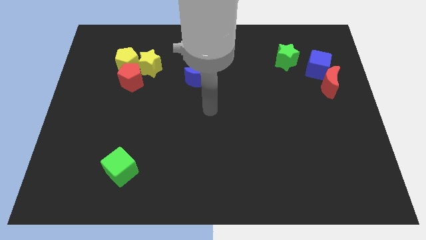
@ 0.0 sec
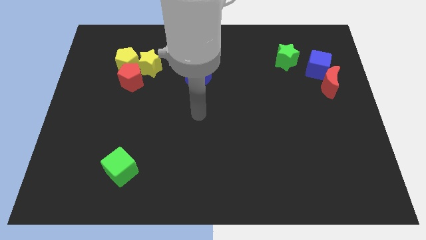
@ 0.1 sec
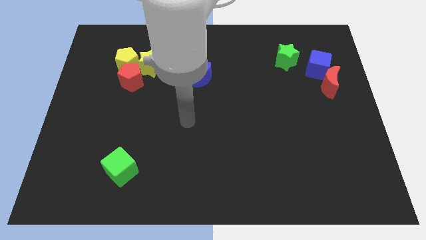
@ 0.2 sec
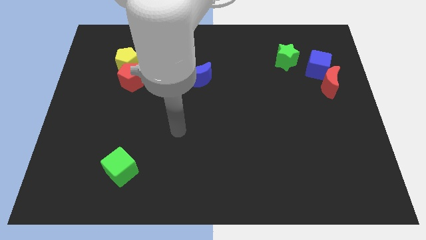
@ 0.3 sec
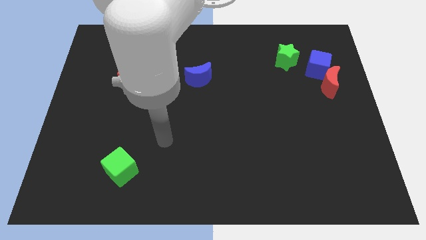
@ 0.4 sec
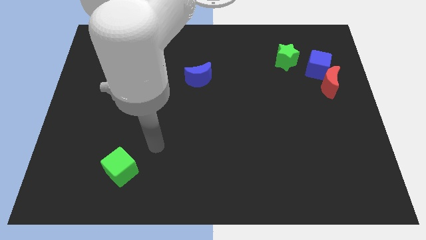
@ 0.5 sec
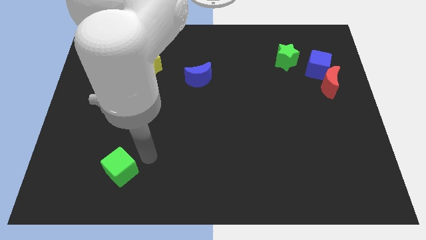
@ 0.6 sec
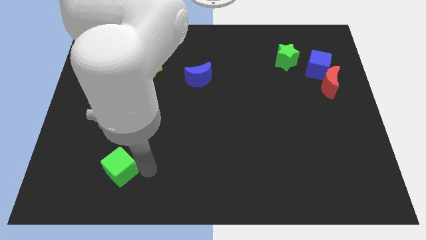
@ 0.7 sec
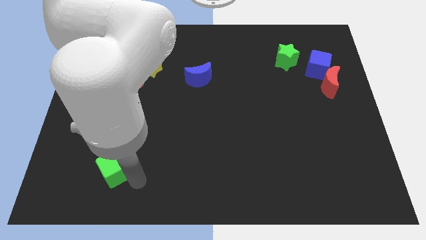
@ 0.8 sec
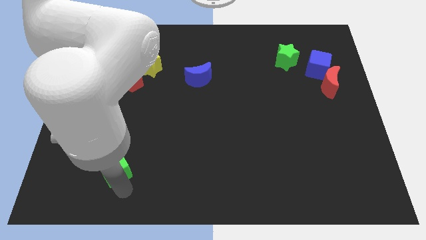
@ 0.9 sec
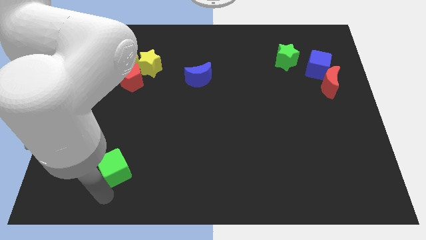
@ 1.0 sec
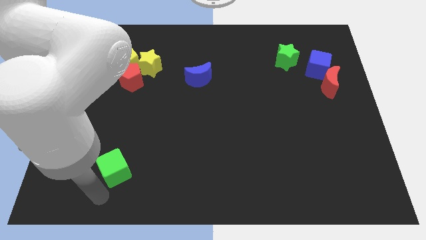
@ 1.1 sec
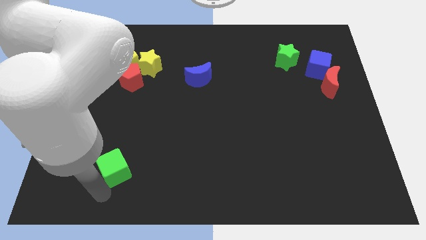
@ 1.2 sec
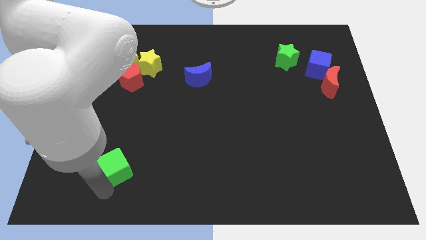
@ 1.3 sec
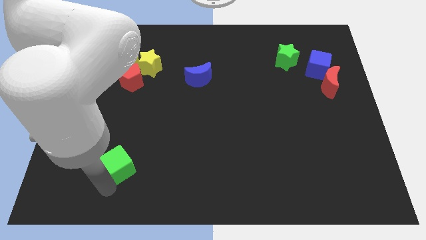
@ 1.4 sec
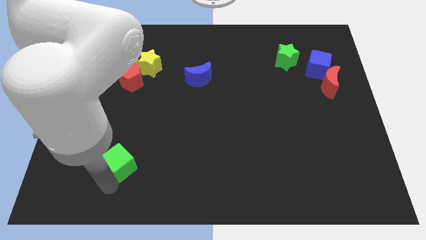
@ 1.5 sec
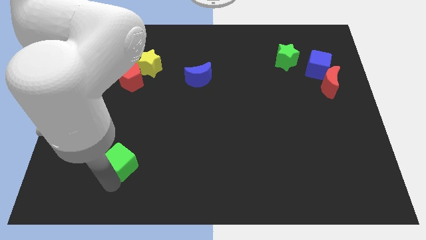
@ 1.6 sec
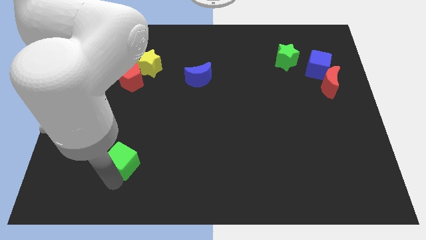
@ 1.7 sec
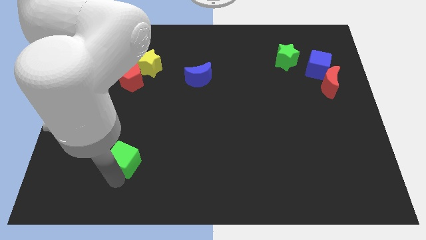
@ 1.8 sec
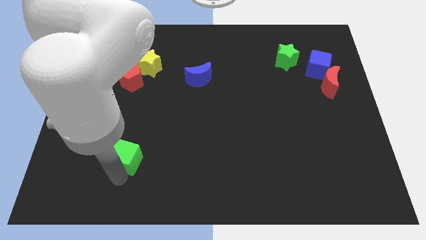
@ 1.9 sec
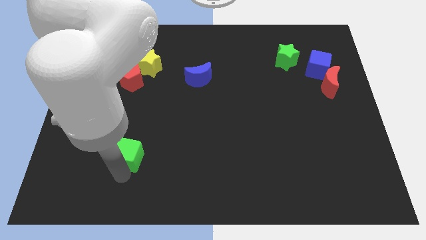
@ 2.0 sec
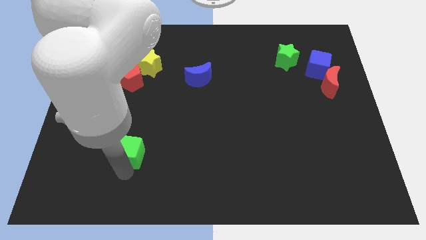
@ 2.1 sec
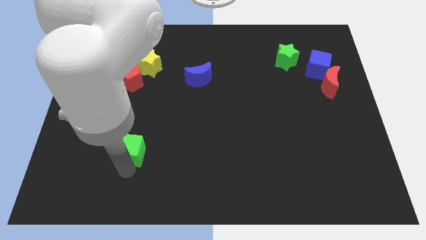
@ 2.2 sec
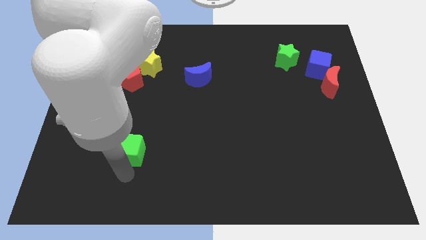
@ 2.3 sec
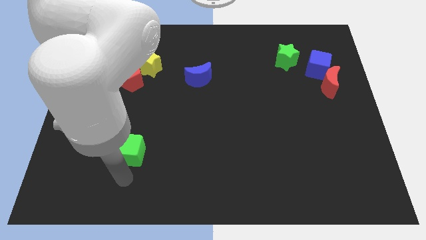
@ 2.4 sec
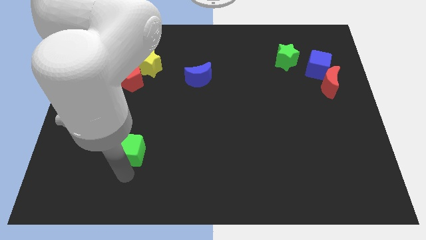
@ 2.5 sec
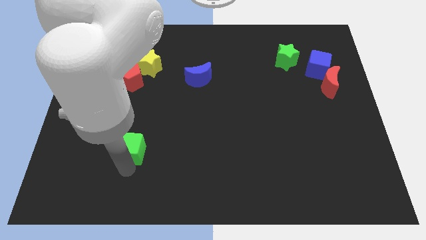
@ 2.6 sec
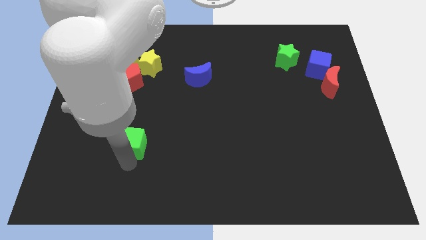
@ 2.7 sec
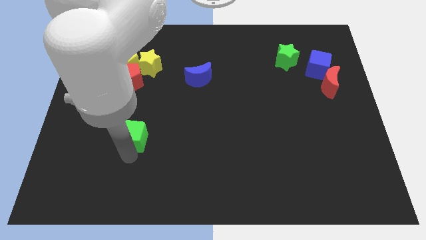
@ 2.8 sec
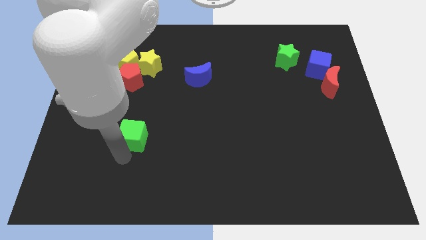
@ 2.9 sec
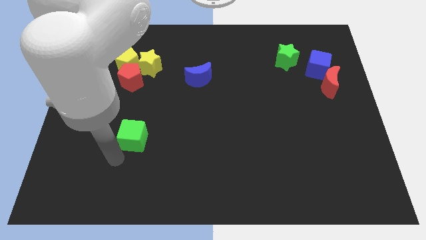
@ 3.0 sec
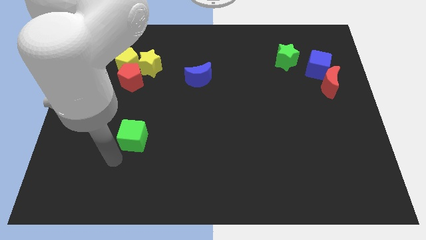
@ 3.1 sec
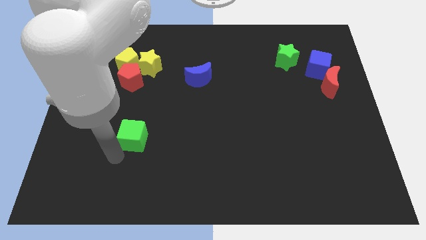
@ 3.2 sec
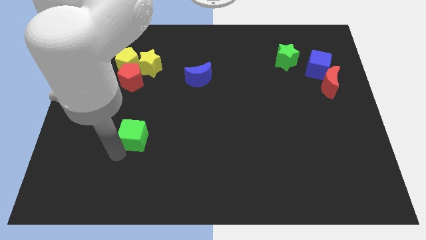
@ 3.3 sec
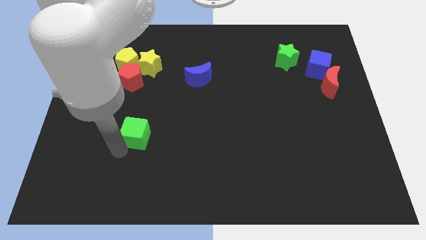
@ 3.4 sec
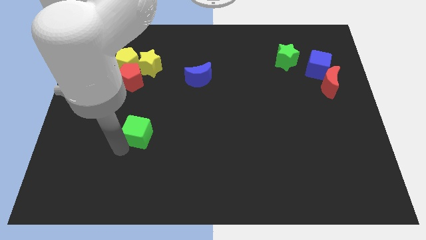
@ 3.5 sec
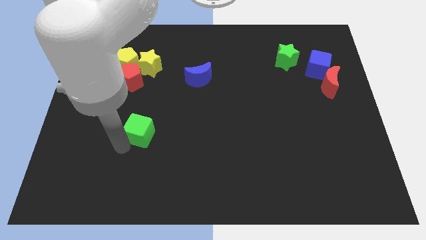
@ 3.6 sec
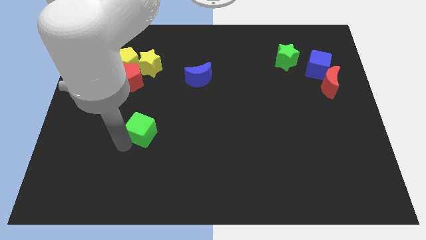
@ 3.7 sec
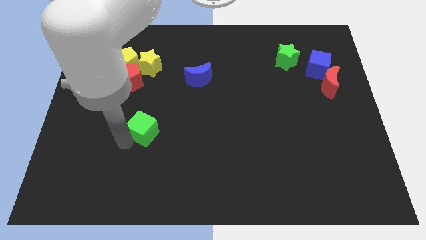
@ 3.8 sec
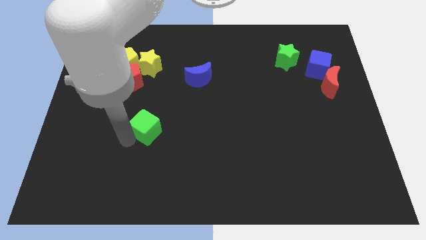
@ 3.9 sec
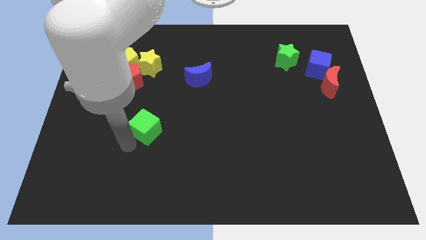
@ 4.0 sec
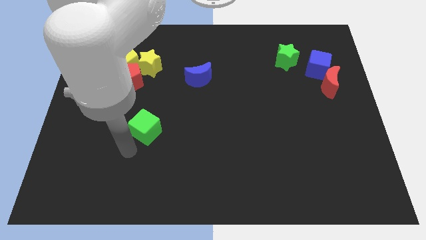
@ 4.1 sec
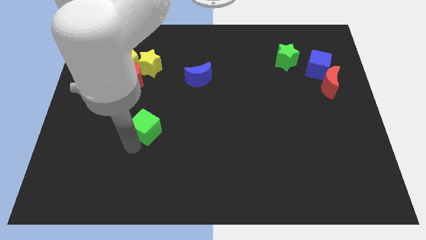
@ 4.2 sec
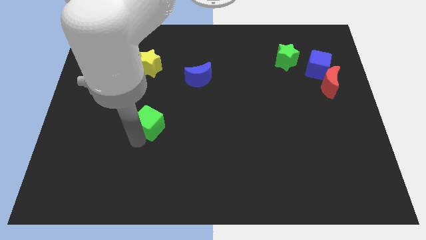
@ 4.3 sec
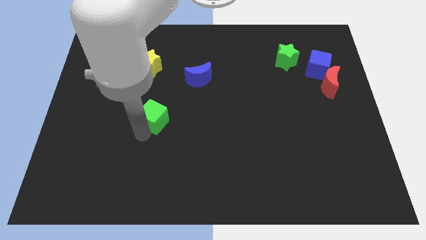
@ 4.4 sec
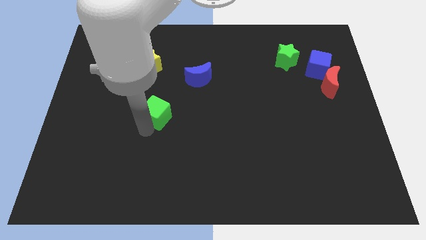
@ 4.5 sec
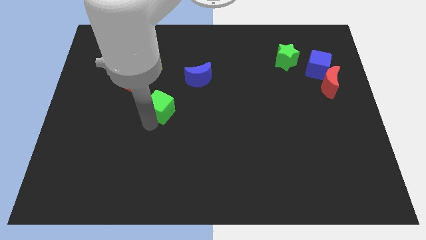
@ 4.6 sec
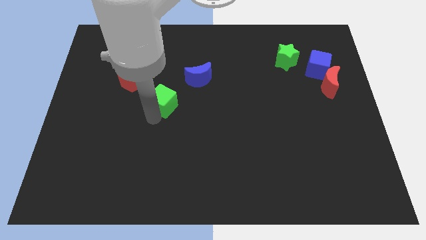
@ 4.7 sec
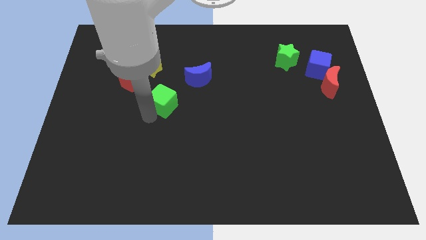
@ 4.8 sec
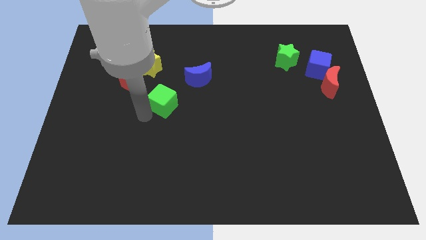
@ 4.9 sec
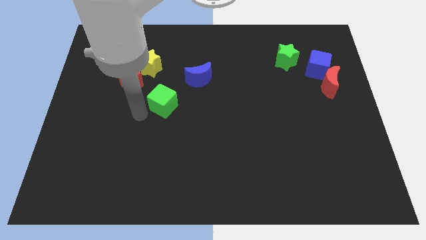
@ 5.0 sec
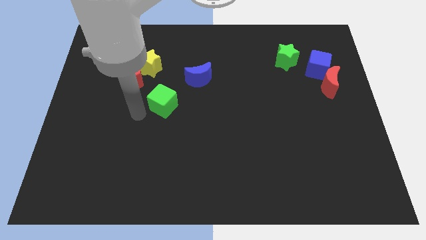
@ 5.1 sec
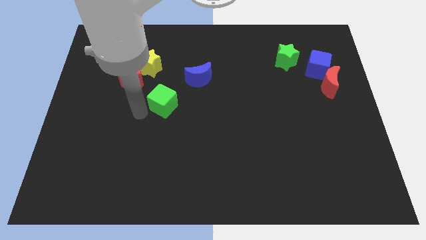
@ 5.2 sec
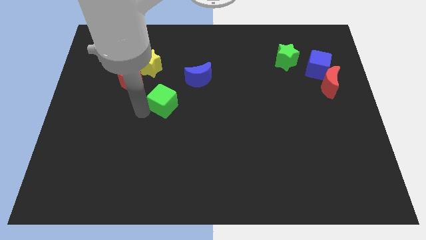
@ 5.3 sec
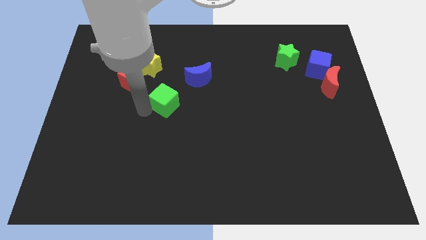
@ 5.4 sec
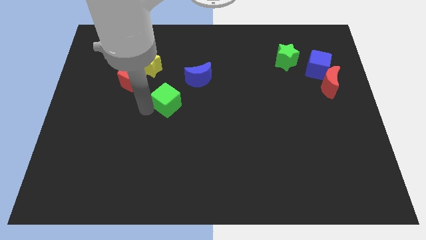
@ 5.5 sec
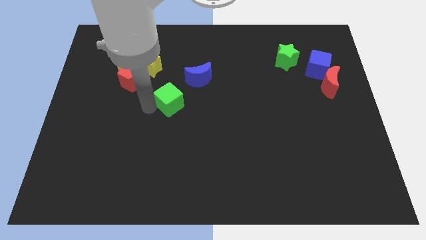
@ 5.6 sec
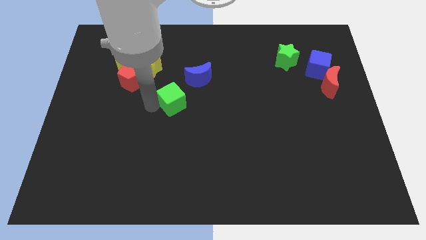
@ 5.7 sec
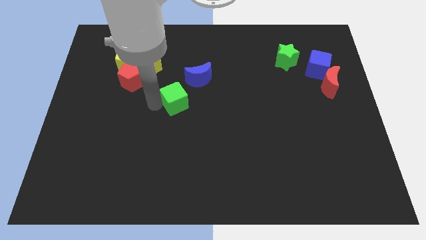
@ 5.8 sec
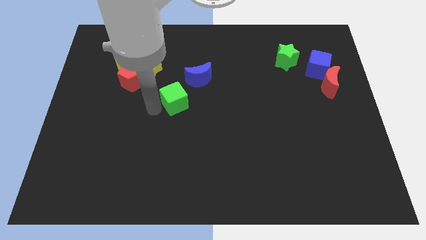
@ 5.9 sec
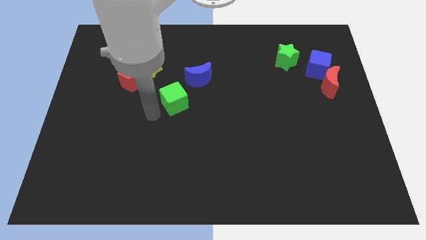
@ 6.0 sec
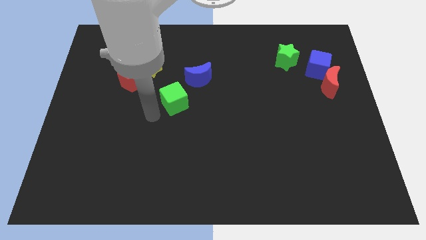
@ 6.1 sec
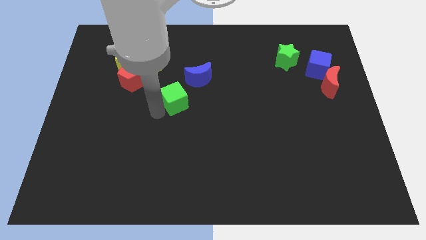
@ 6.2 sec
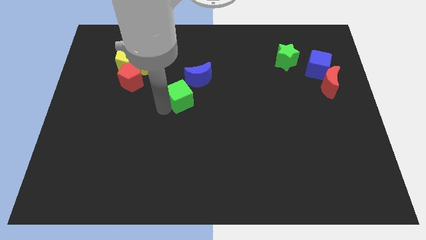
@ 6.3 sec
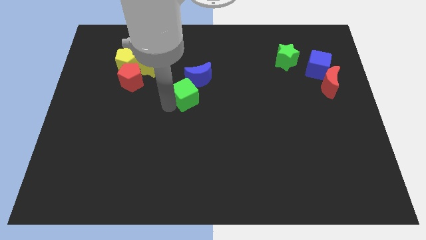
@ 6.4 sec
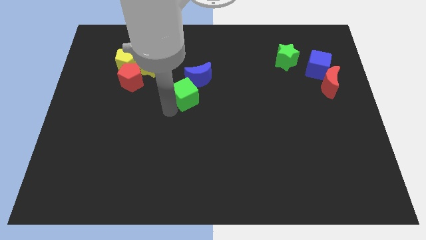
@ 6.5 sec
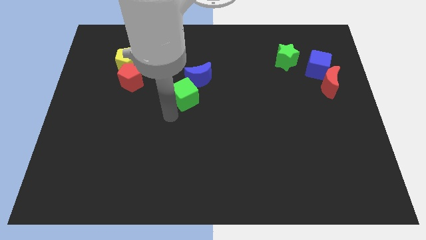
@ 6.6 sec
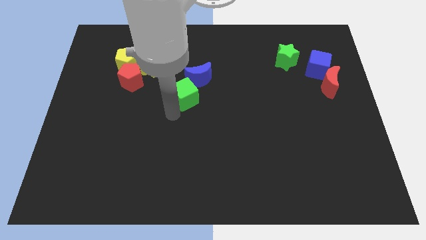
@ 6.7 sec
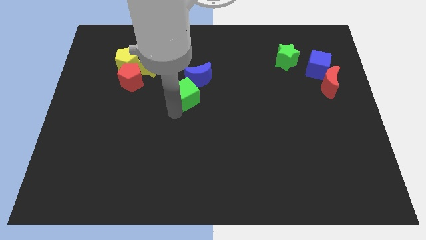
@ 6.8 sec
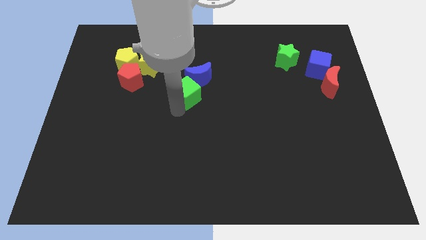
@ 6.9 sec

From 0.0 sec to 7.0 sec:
push the green cube to the blue moon

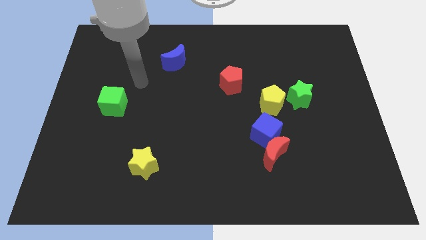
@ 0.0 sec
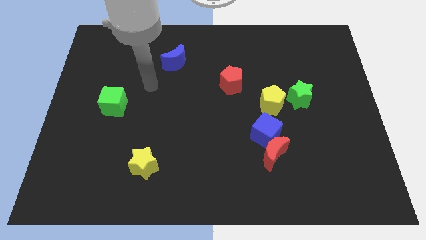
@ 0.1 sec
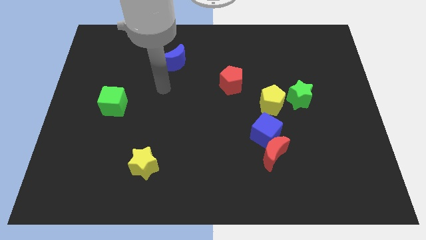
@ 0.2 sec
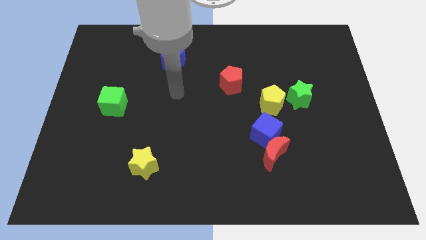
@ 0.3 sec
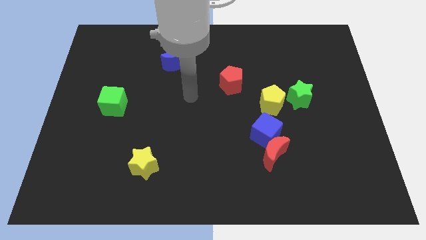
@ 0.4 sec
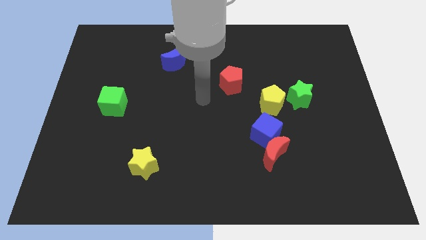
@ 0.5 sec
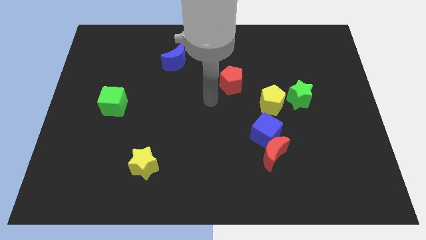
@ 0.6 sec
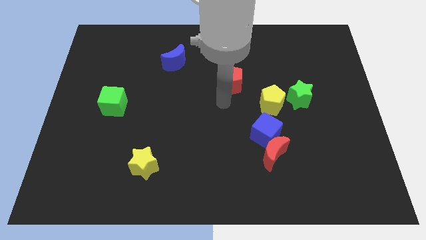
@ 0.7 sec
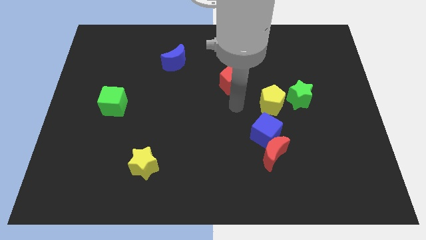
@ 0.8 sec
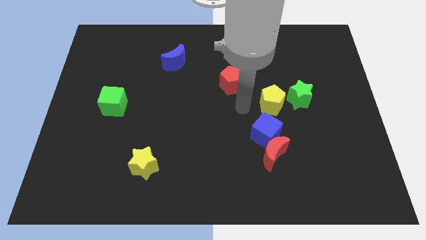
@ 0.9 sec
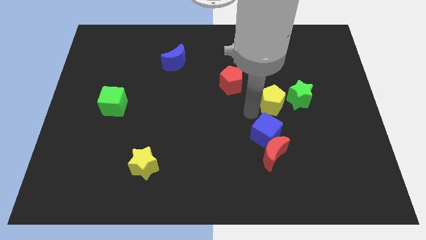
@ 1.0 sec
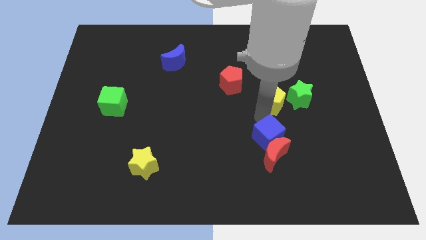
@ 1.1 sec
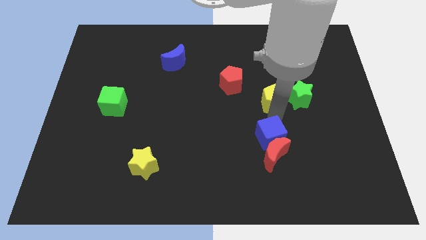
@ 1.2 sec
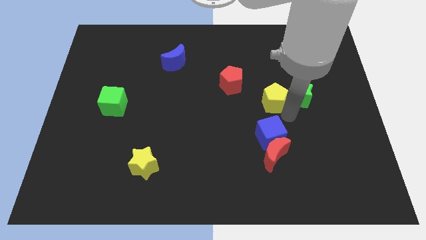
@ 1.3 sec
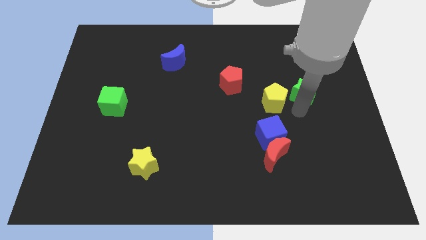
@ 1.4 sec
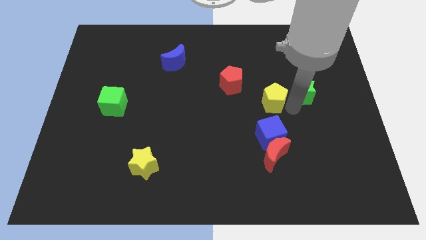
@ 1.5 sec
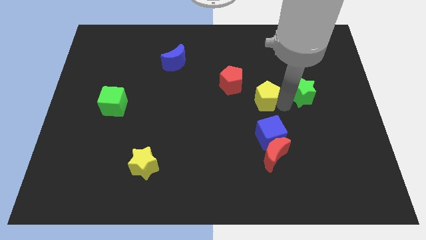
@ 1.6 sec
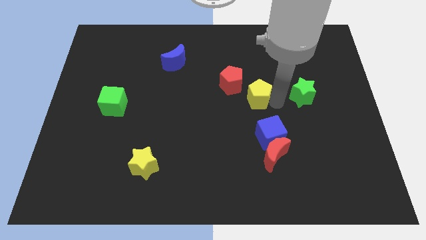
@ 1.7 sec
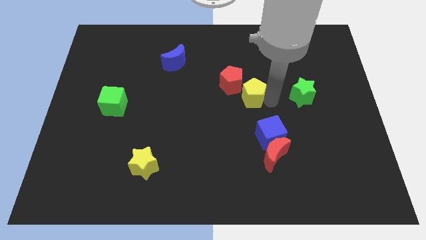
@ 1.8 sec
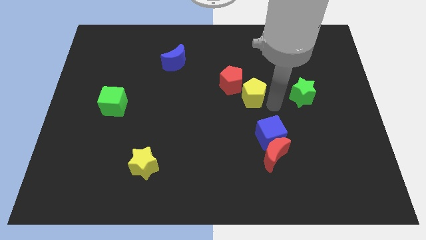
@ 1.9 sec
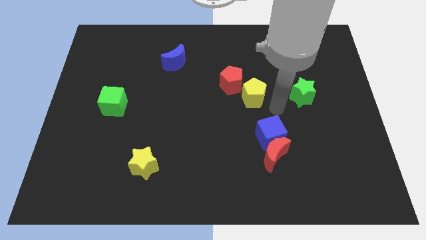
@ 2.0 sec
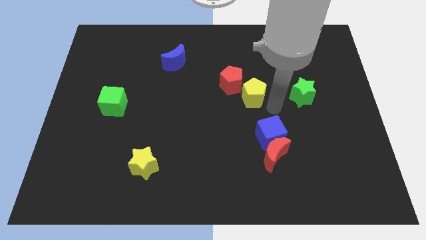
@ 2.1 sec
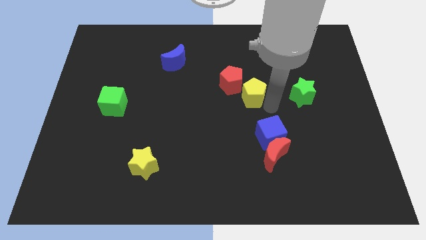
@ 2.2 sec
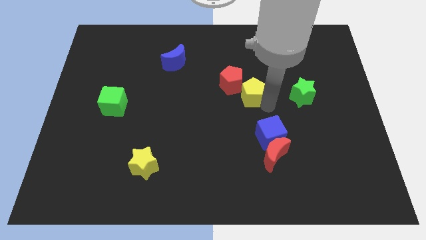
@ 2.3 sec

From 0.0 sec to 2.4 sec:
push the yellow pentagon next to the red pentagon
